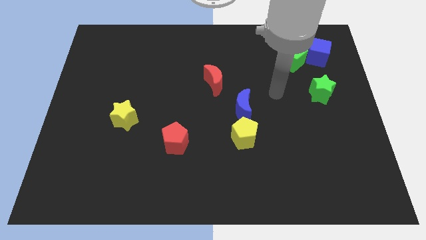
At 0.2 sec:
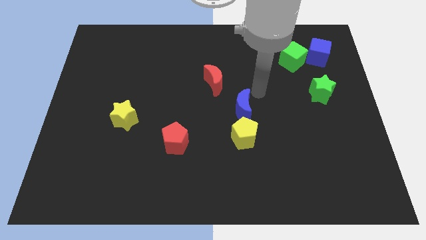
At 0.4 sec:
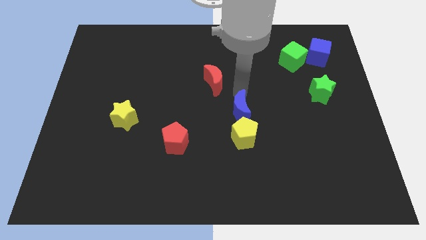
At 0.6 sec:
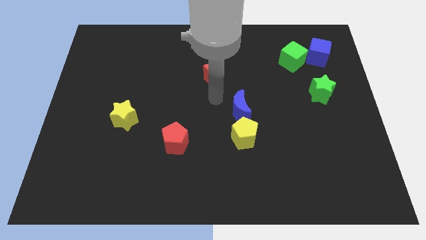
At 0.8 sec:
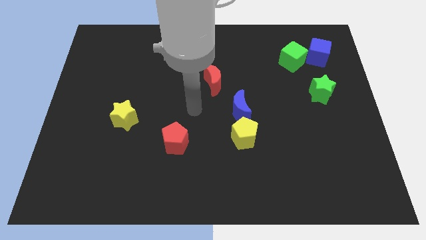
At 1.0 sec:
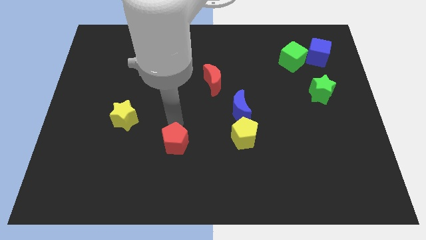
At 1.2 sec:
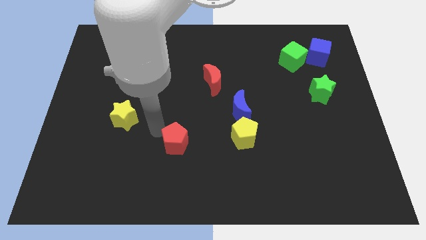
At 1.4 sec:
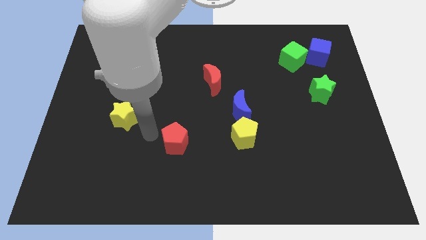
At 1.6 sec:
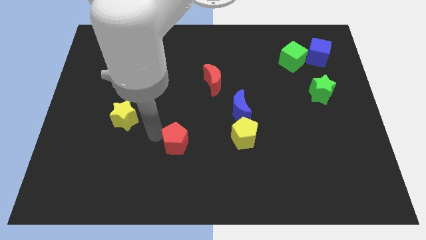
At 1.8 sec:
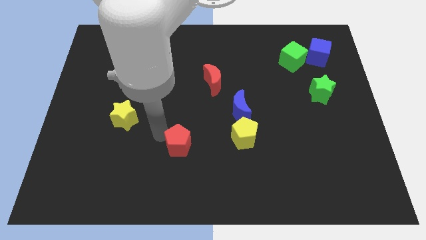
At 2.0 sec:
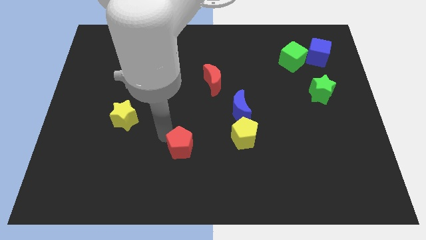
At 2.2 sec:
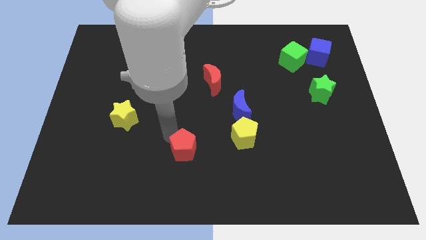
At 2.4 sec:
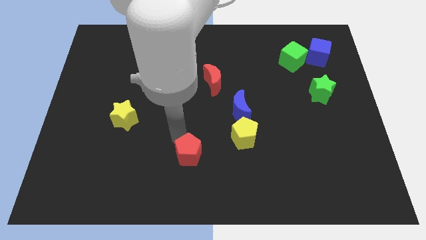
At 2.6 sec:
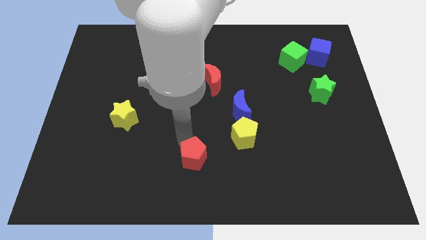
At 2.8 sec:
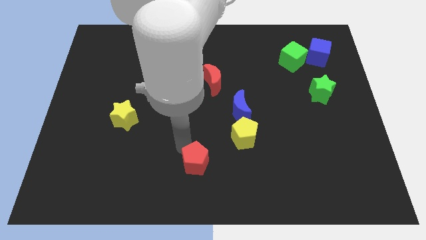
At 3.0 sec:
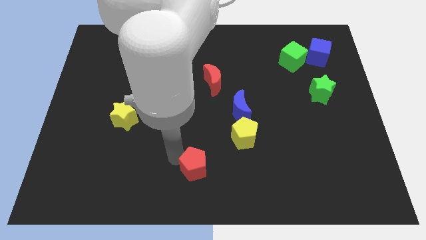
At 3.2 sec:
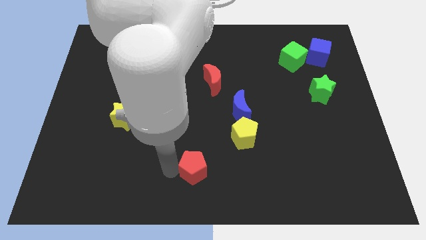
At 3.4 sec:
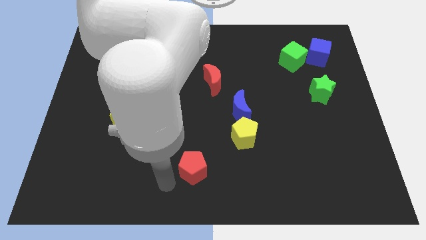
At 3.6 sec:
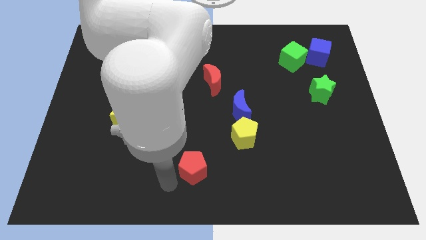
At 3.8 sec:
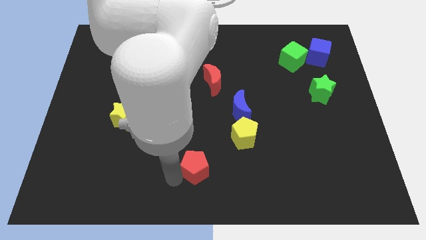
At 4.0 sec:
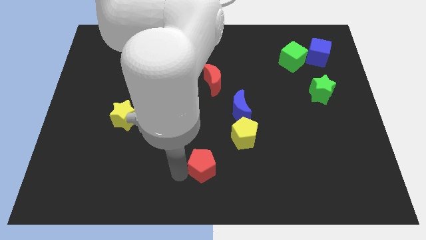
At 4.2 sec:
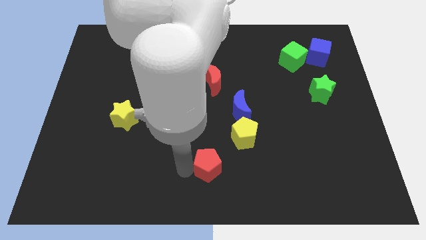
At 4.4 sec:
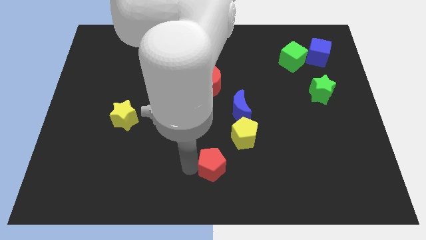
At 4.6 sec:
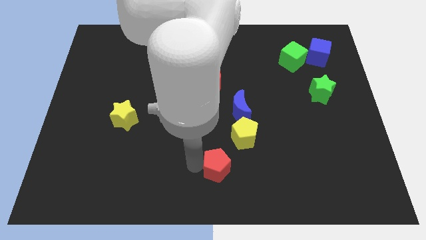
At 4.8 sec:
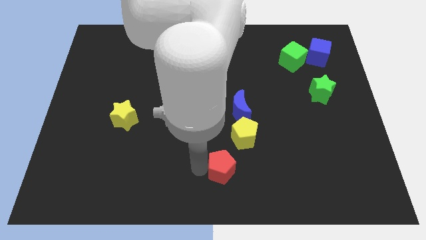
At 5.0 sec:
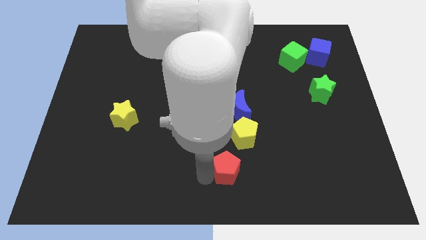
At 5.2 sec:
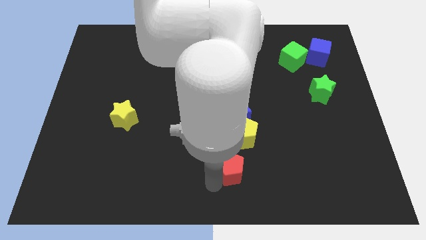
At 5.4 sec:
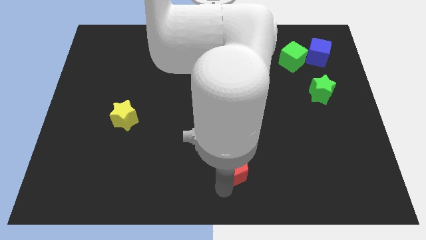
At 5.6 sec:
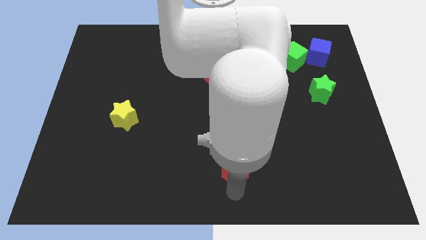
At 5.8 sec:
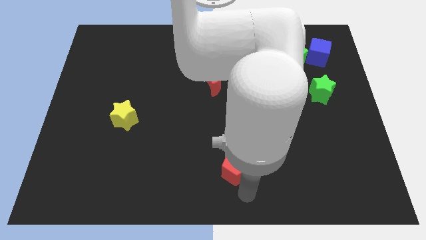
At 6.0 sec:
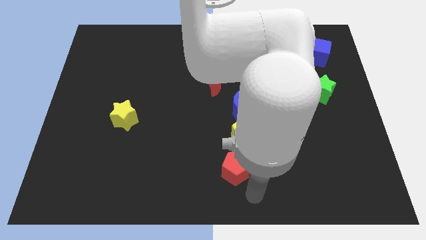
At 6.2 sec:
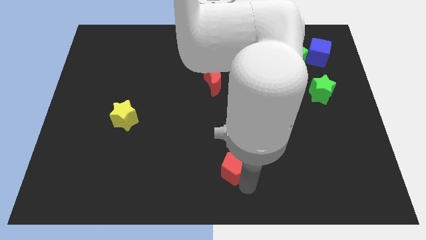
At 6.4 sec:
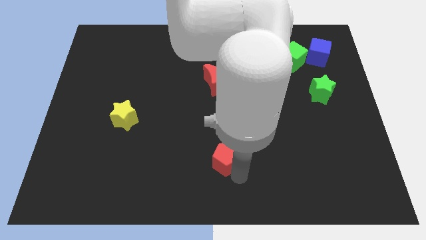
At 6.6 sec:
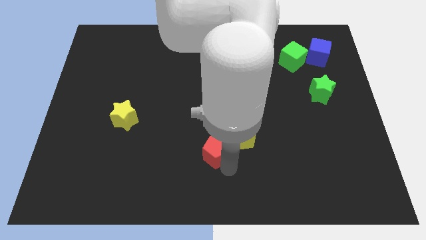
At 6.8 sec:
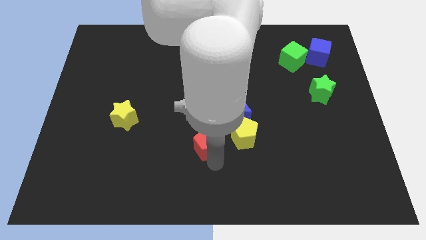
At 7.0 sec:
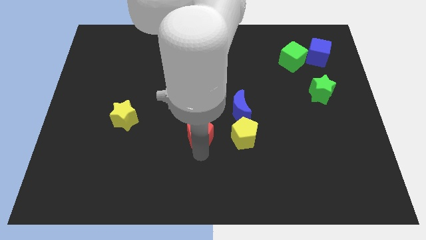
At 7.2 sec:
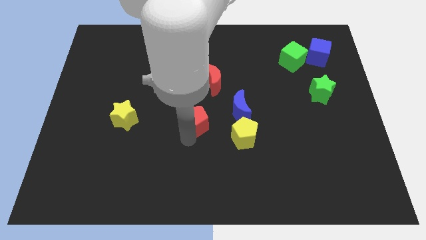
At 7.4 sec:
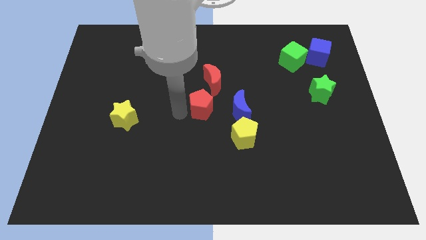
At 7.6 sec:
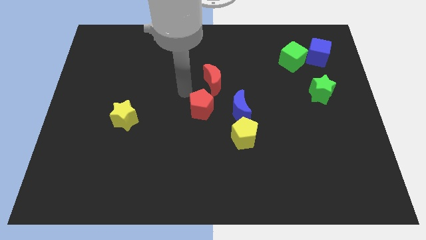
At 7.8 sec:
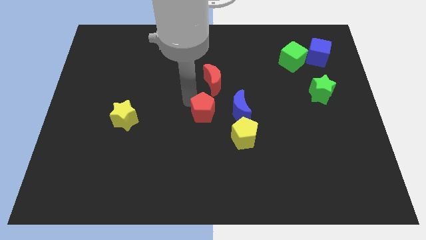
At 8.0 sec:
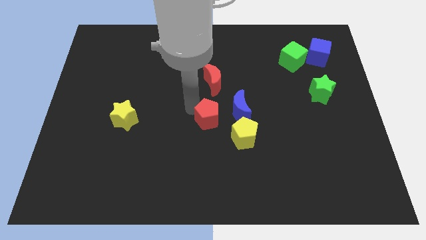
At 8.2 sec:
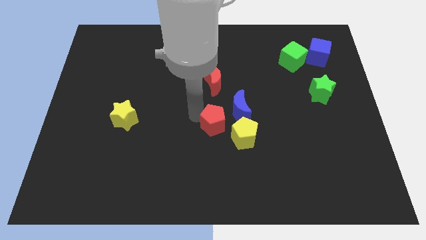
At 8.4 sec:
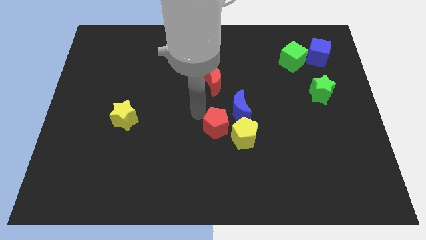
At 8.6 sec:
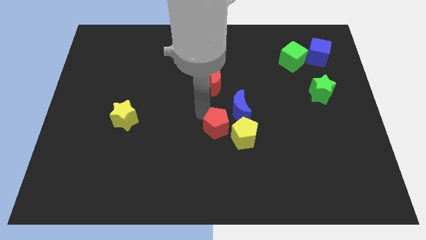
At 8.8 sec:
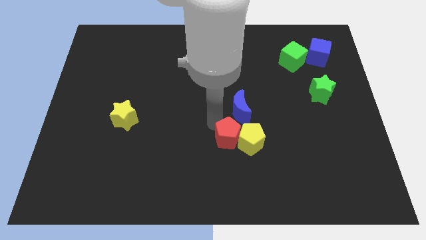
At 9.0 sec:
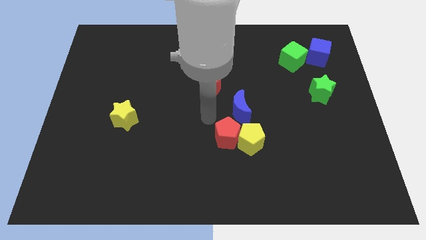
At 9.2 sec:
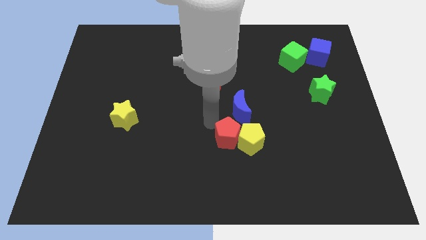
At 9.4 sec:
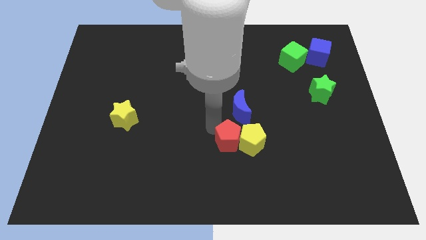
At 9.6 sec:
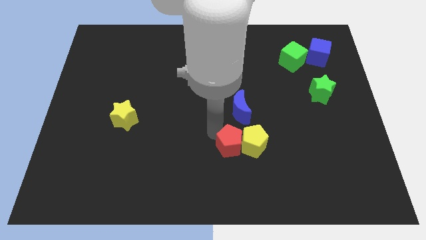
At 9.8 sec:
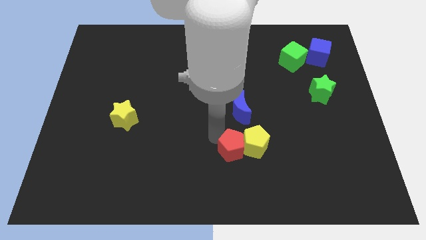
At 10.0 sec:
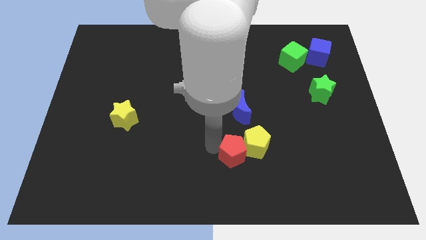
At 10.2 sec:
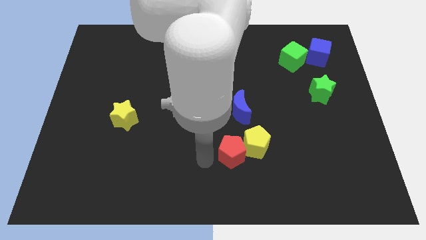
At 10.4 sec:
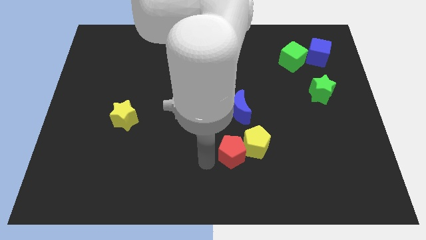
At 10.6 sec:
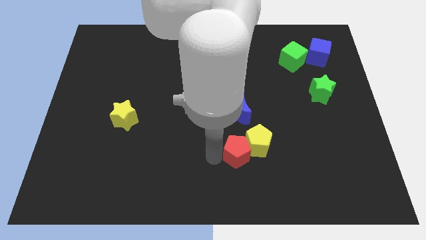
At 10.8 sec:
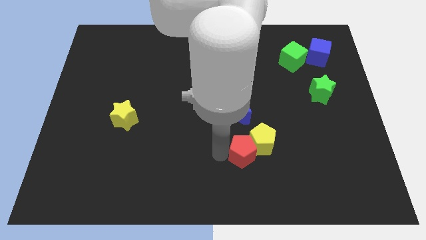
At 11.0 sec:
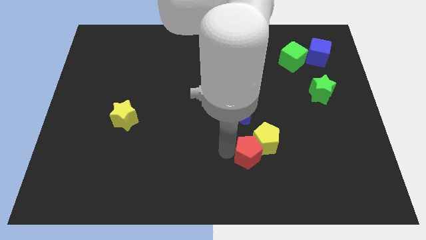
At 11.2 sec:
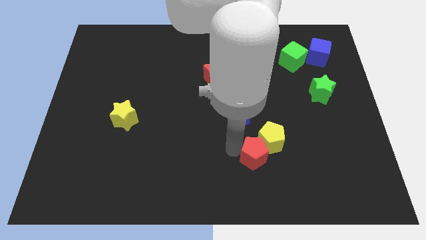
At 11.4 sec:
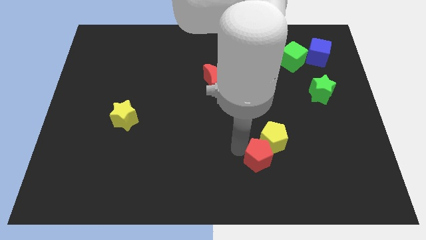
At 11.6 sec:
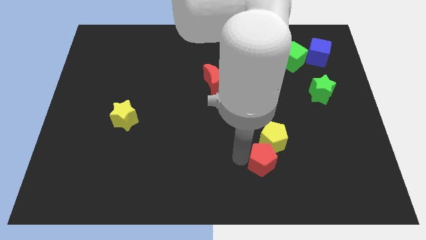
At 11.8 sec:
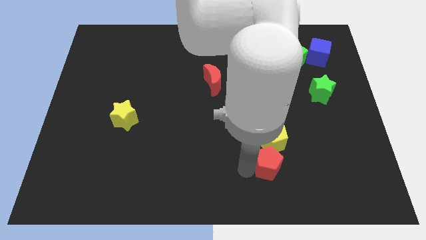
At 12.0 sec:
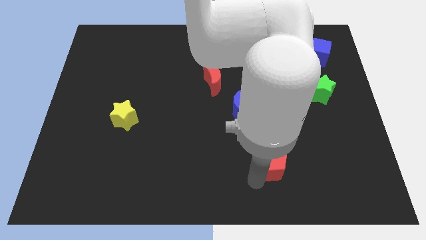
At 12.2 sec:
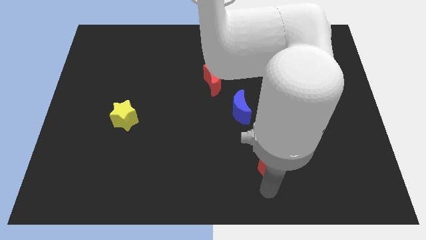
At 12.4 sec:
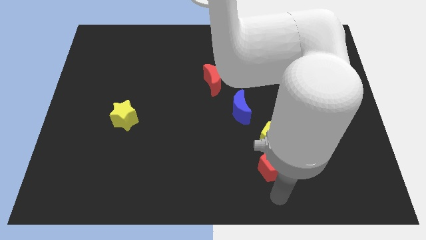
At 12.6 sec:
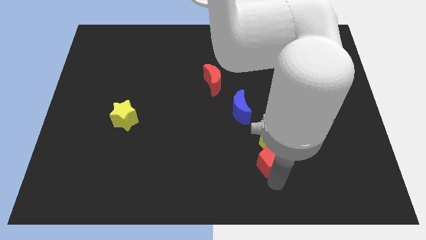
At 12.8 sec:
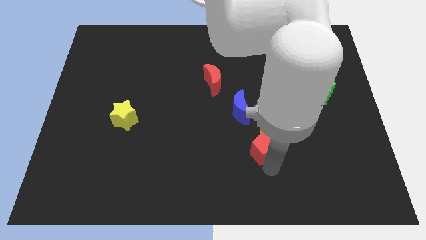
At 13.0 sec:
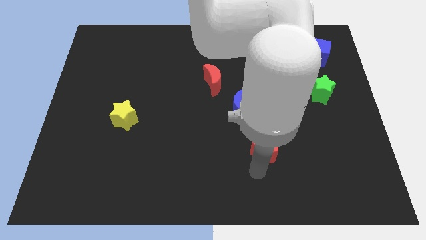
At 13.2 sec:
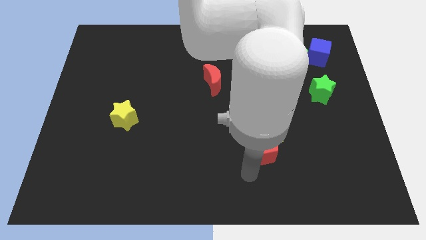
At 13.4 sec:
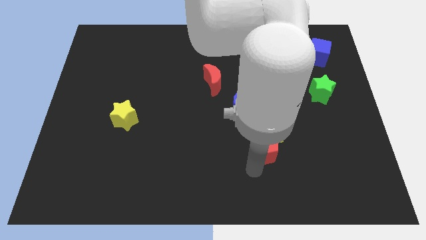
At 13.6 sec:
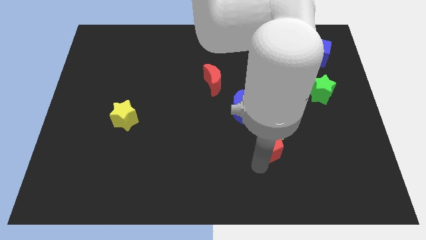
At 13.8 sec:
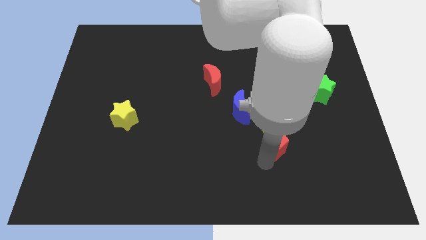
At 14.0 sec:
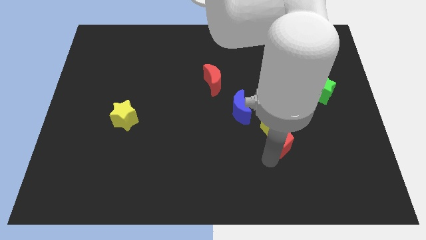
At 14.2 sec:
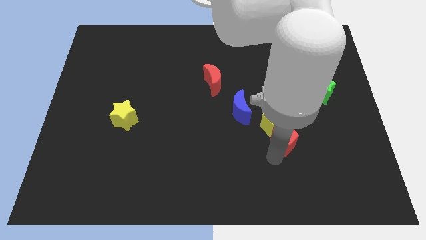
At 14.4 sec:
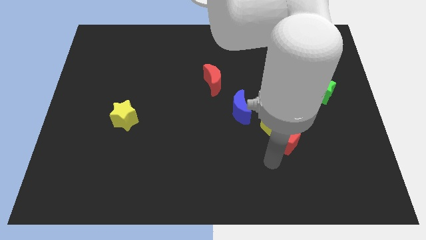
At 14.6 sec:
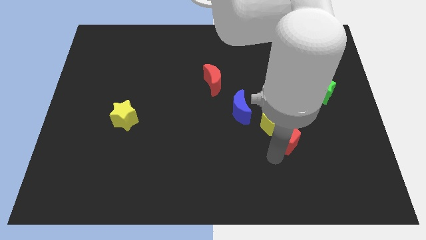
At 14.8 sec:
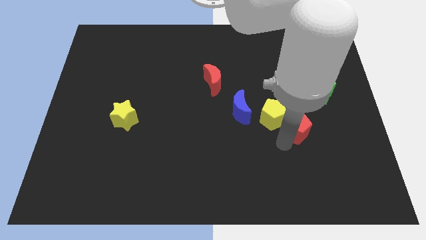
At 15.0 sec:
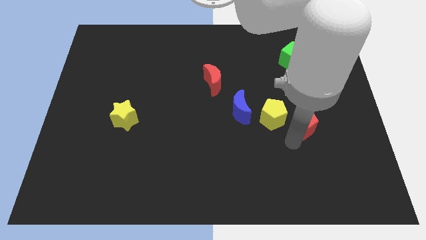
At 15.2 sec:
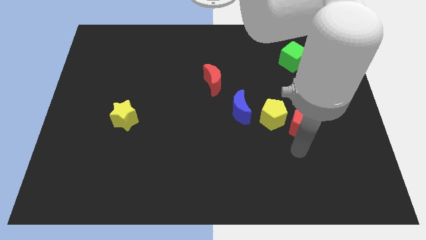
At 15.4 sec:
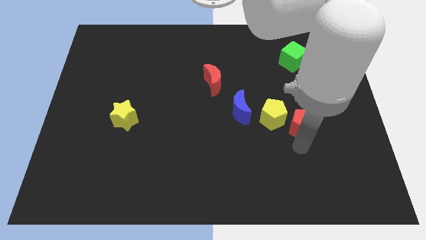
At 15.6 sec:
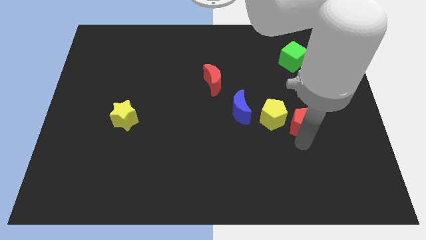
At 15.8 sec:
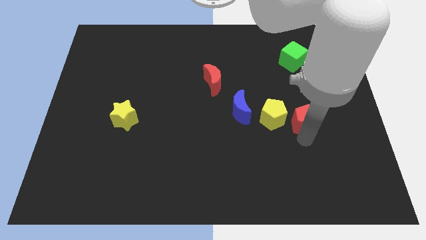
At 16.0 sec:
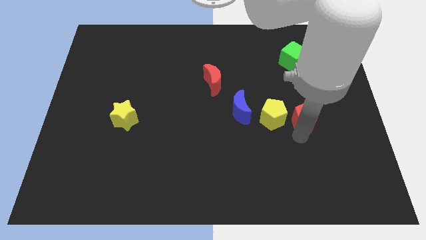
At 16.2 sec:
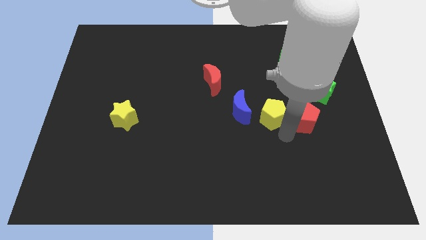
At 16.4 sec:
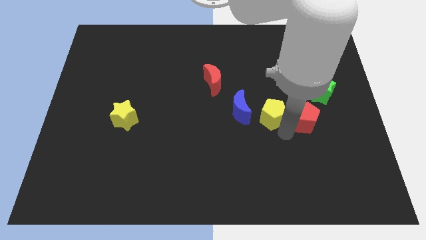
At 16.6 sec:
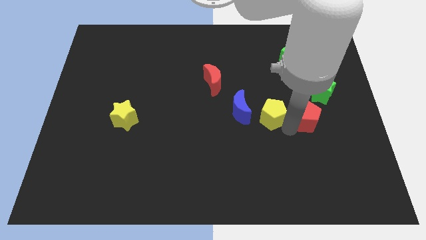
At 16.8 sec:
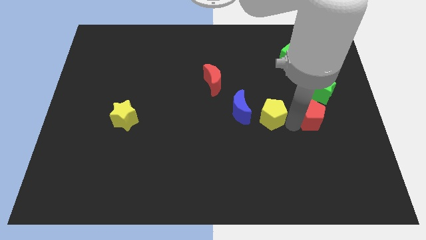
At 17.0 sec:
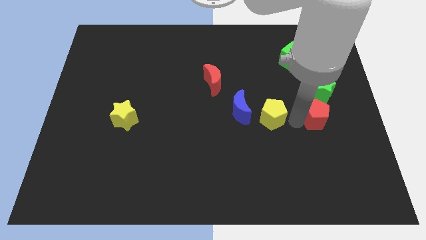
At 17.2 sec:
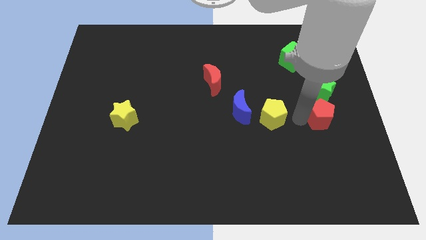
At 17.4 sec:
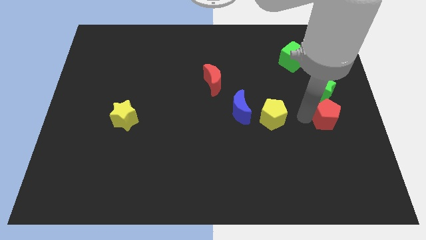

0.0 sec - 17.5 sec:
move the red pentagon to the center right
